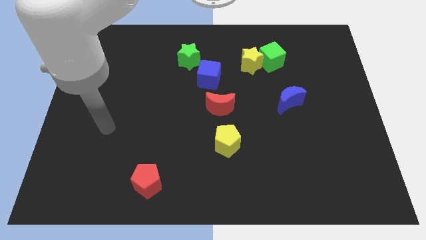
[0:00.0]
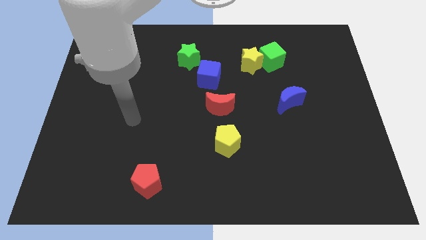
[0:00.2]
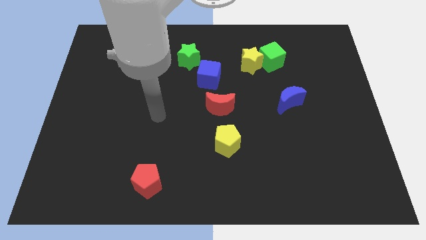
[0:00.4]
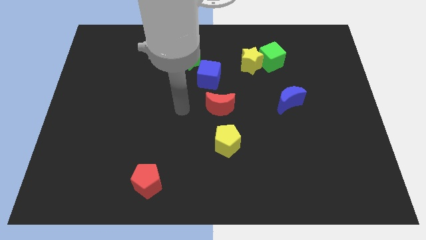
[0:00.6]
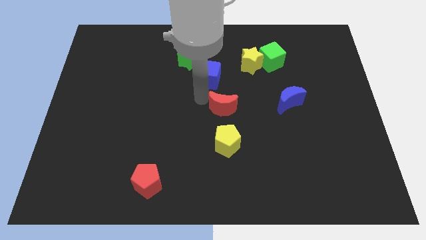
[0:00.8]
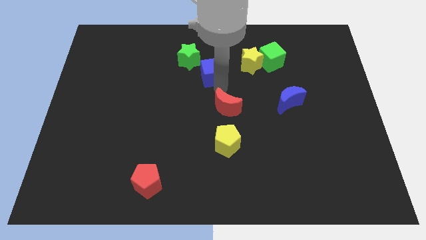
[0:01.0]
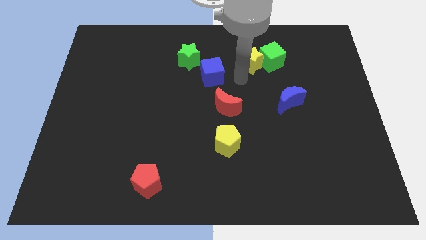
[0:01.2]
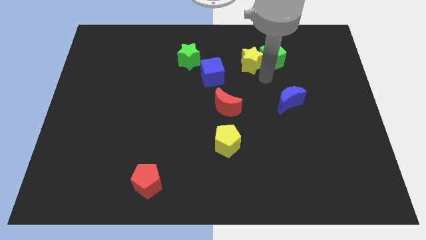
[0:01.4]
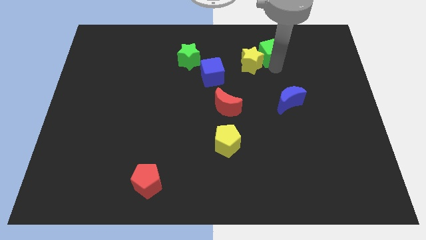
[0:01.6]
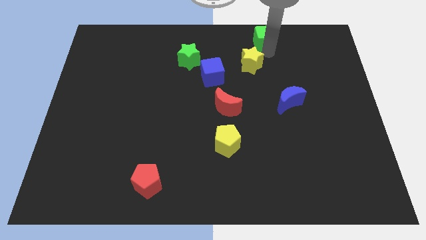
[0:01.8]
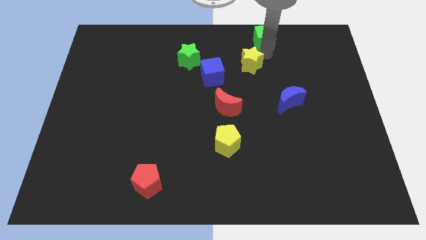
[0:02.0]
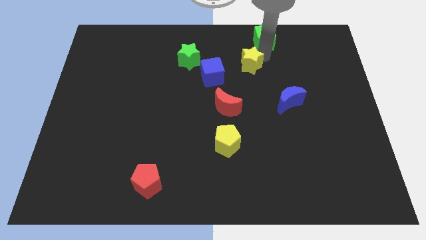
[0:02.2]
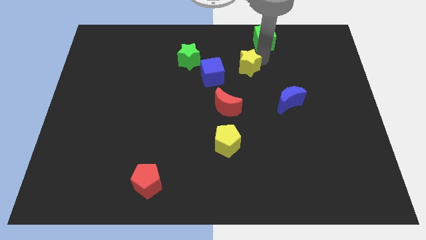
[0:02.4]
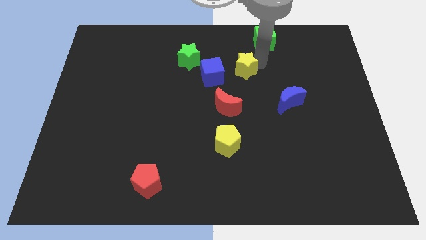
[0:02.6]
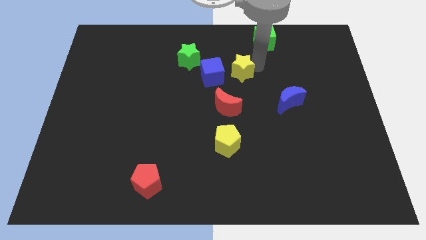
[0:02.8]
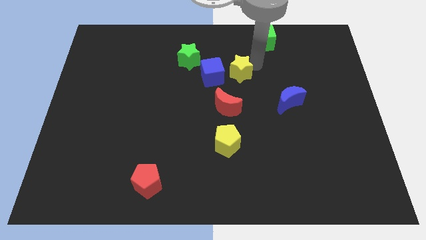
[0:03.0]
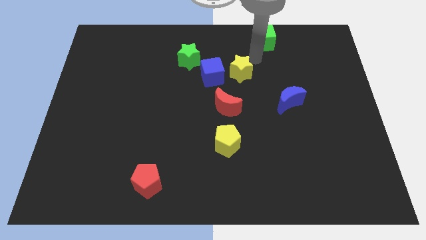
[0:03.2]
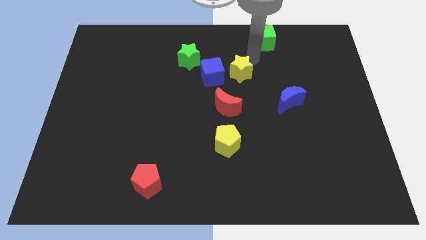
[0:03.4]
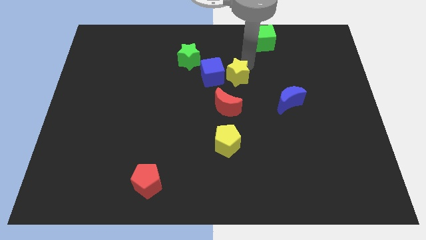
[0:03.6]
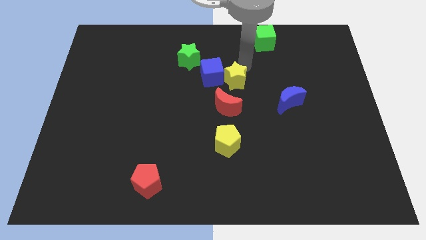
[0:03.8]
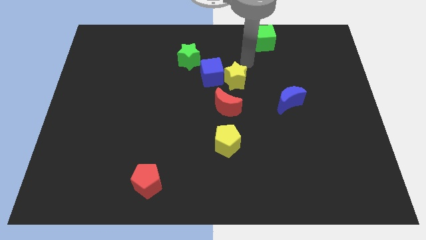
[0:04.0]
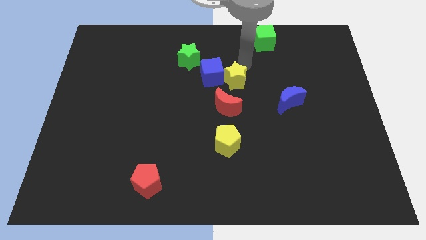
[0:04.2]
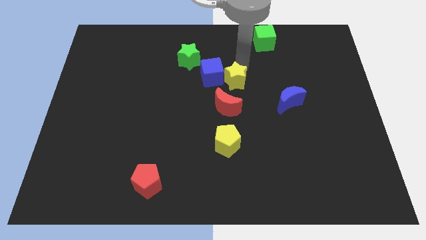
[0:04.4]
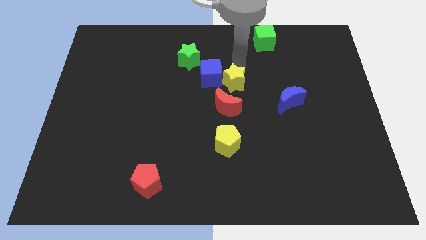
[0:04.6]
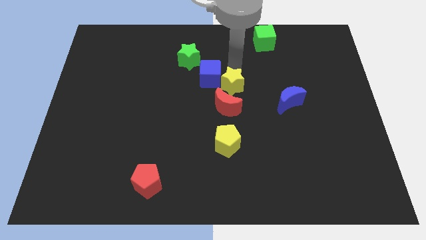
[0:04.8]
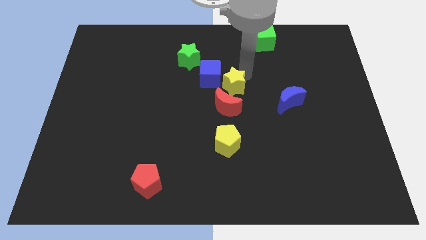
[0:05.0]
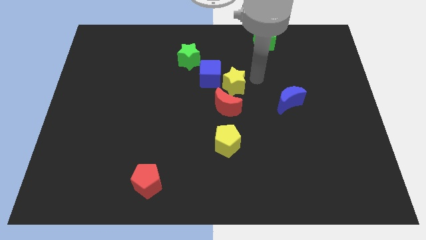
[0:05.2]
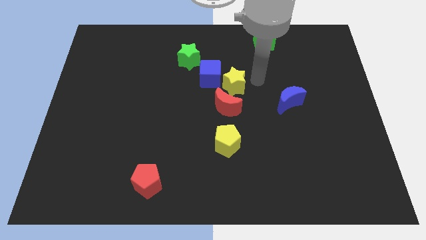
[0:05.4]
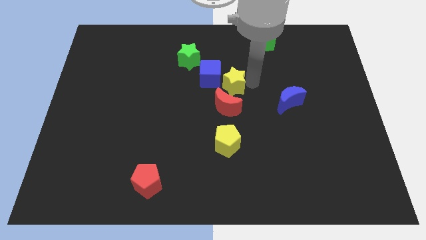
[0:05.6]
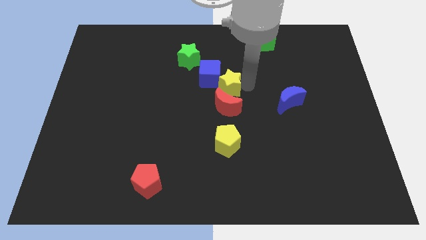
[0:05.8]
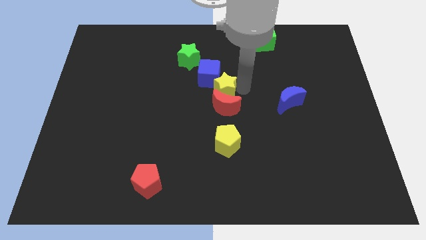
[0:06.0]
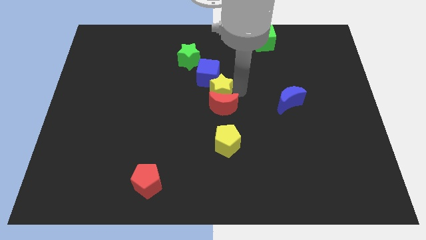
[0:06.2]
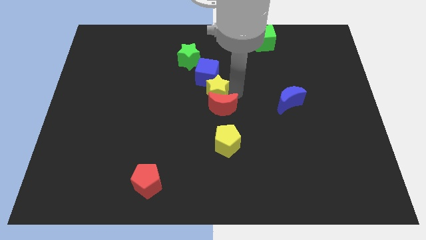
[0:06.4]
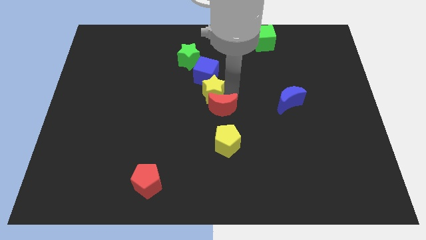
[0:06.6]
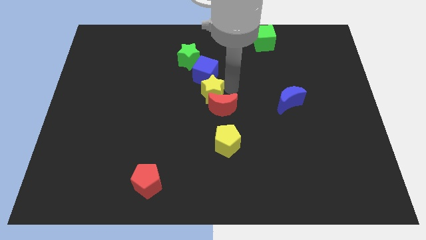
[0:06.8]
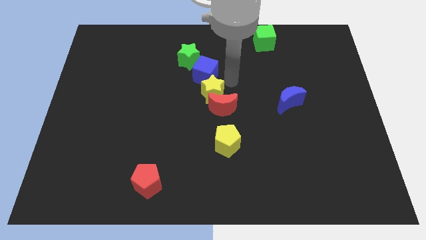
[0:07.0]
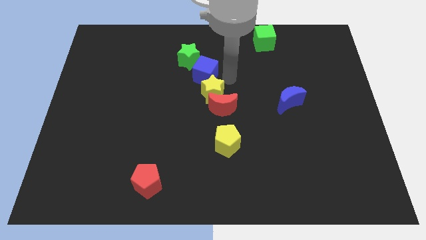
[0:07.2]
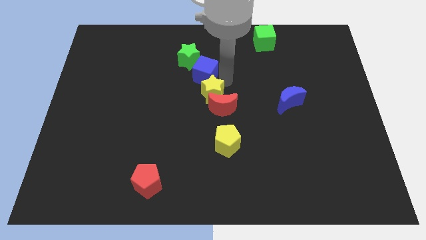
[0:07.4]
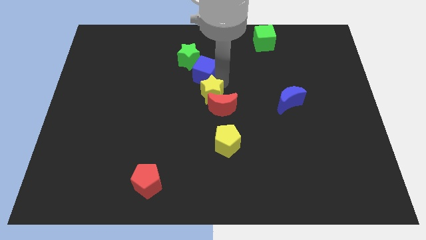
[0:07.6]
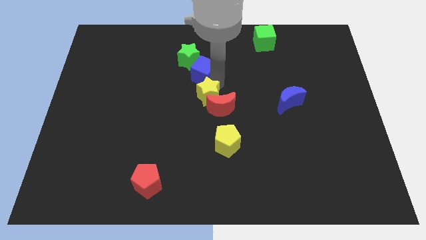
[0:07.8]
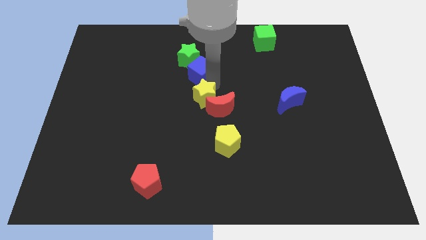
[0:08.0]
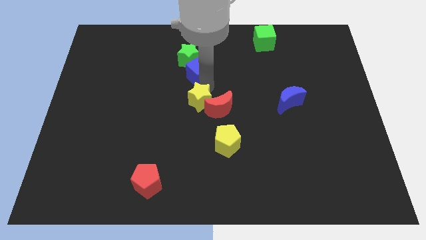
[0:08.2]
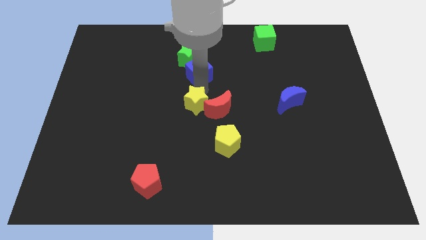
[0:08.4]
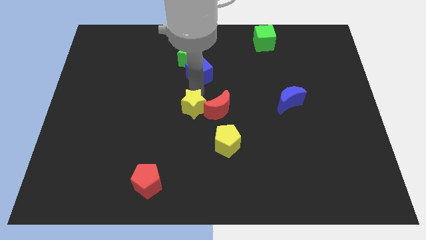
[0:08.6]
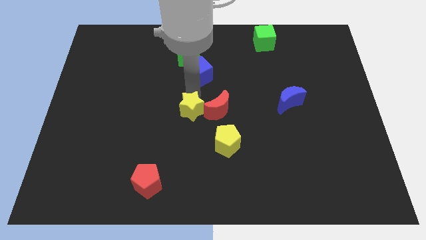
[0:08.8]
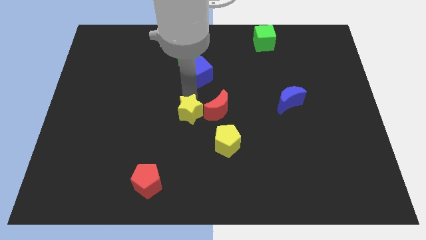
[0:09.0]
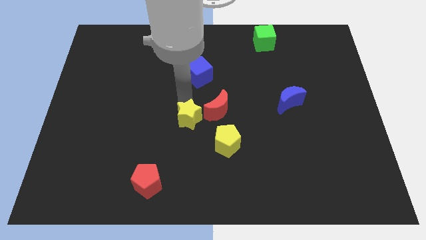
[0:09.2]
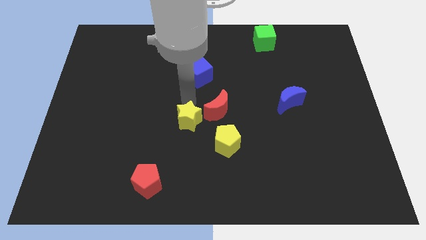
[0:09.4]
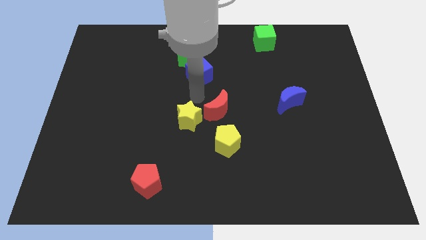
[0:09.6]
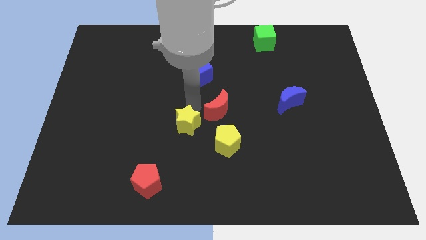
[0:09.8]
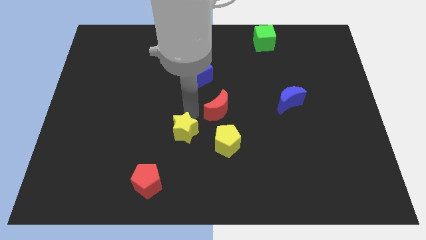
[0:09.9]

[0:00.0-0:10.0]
move the yellow star just left of the yellow pentagon

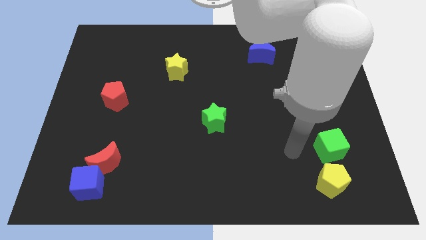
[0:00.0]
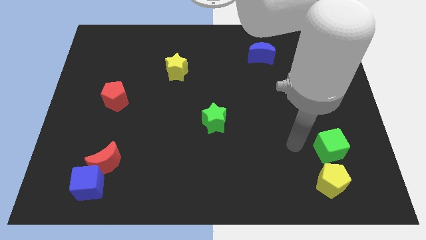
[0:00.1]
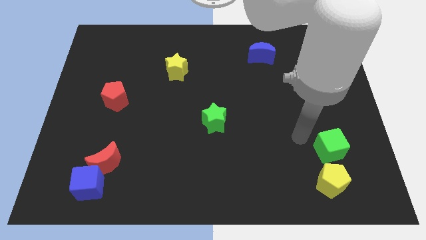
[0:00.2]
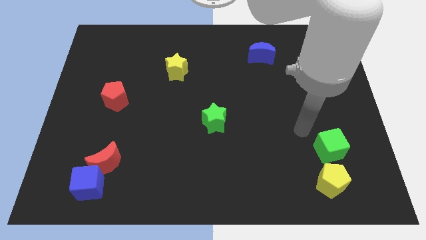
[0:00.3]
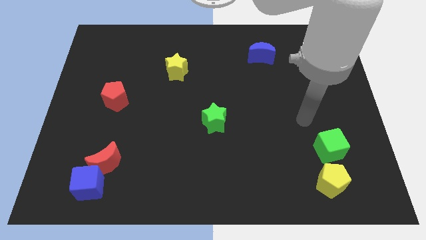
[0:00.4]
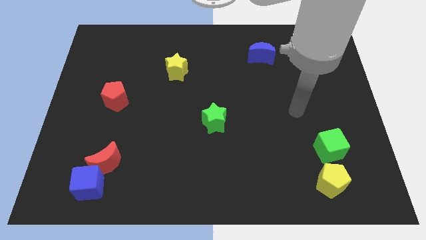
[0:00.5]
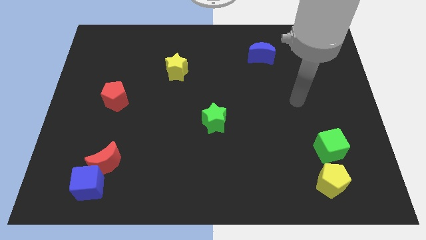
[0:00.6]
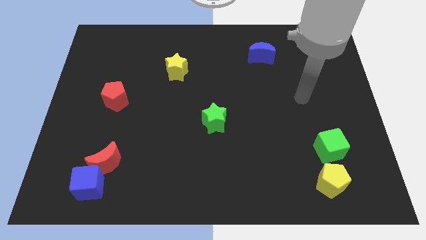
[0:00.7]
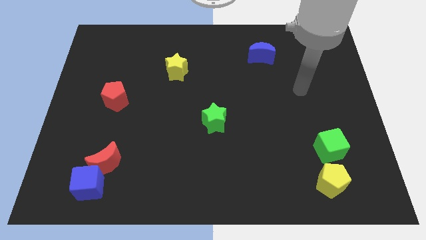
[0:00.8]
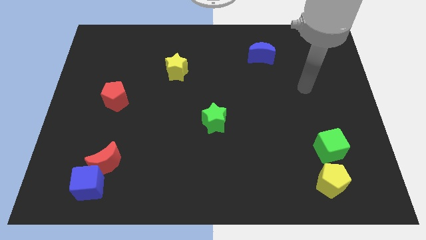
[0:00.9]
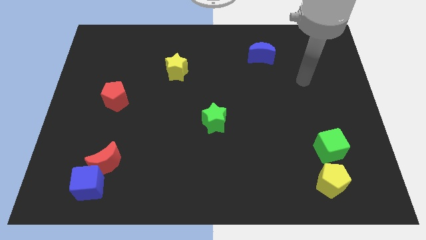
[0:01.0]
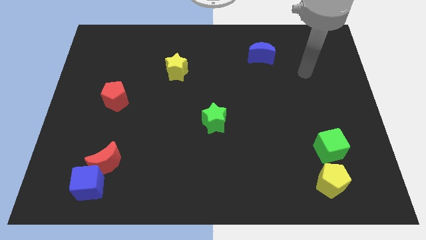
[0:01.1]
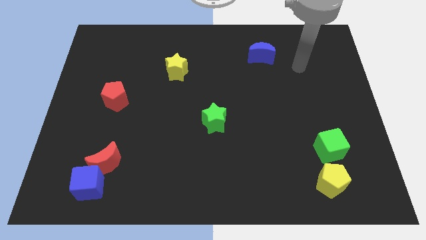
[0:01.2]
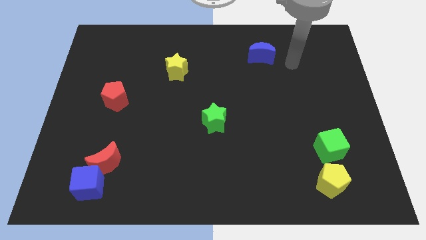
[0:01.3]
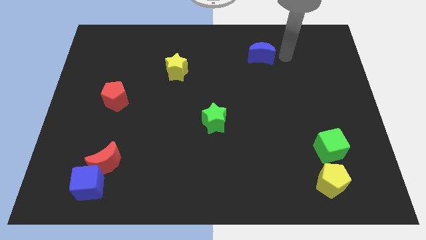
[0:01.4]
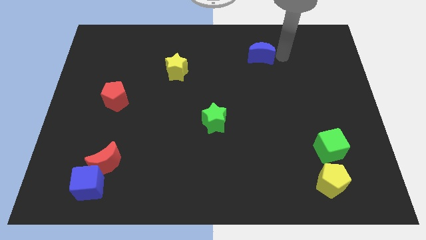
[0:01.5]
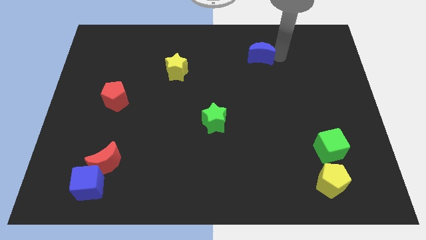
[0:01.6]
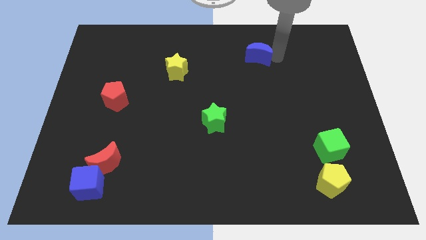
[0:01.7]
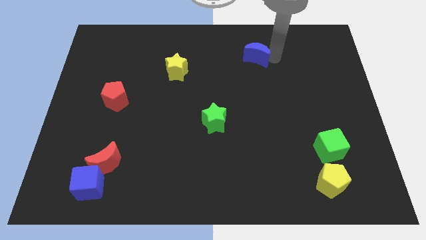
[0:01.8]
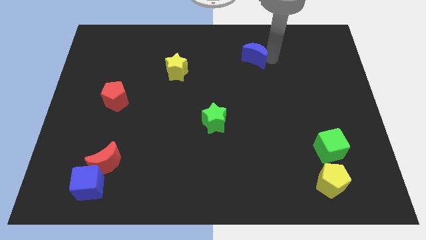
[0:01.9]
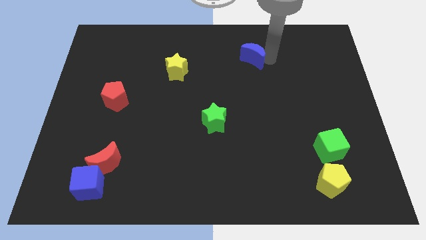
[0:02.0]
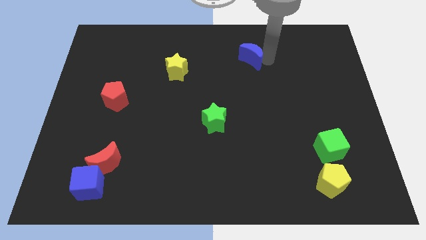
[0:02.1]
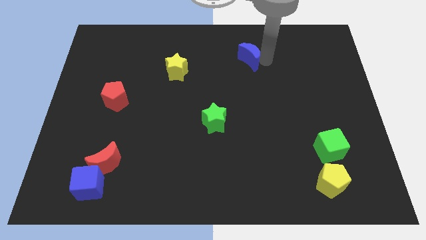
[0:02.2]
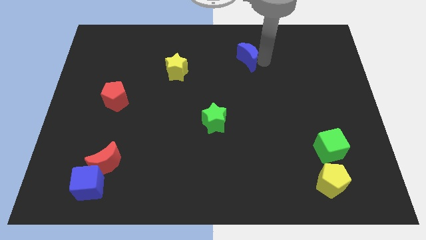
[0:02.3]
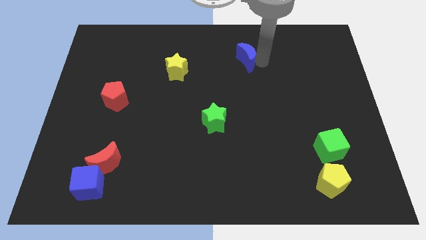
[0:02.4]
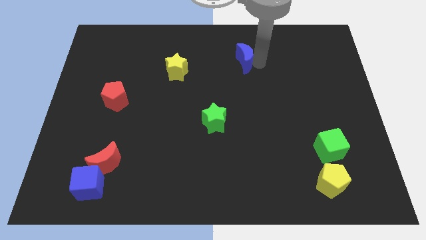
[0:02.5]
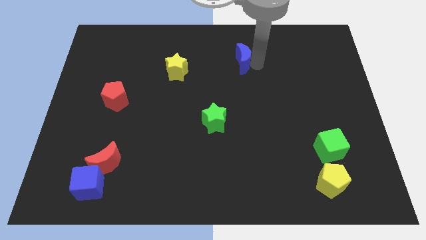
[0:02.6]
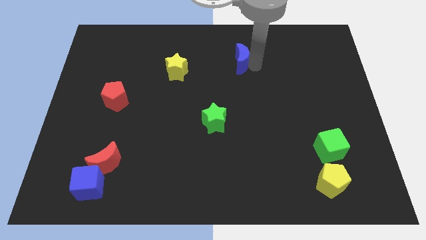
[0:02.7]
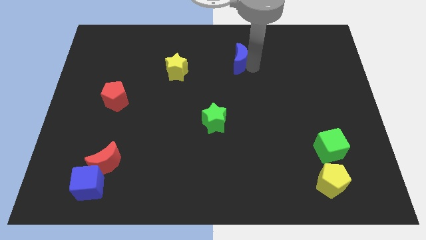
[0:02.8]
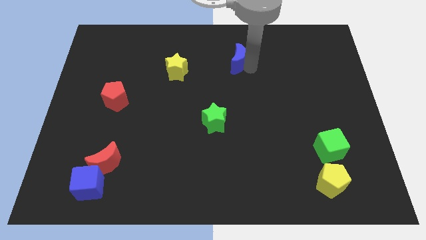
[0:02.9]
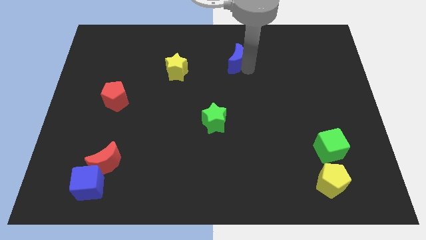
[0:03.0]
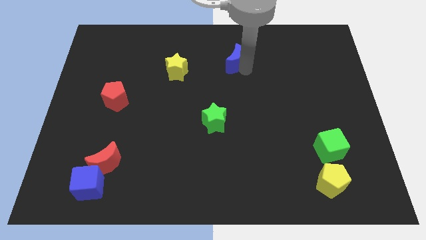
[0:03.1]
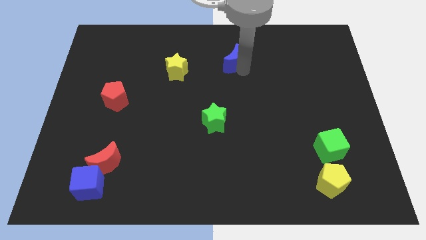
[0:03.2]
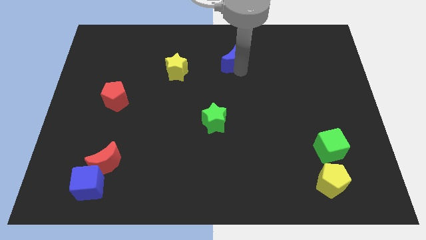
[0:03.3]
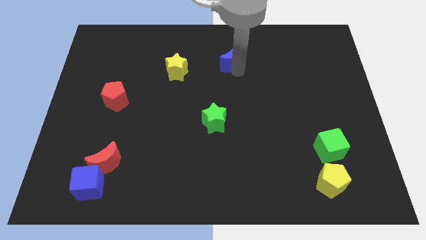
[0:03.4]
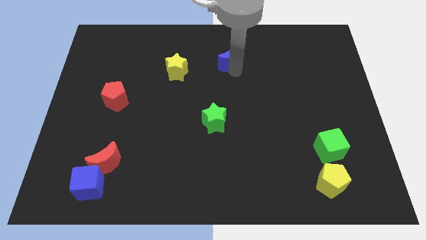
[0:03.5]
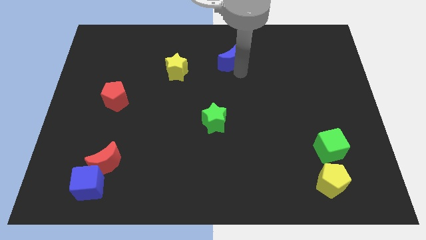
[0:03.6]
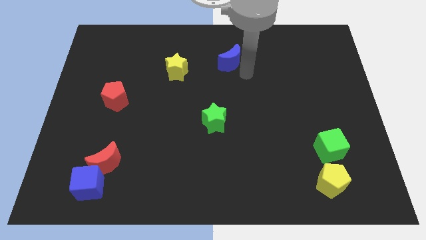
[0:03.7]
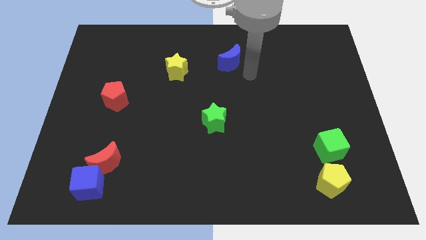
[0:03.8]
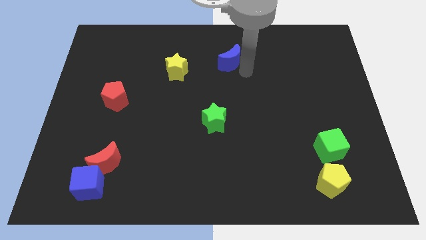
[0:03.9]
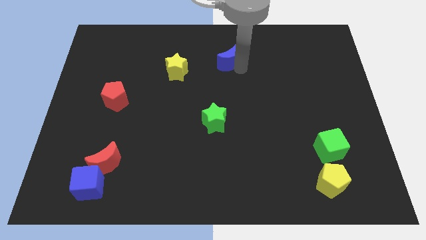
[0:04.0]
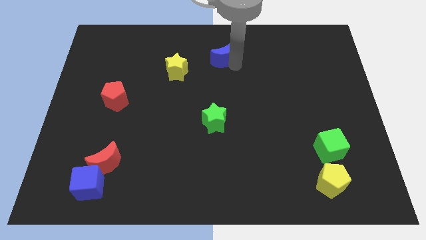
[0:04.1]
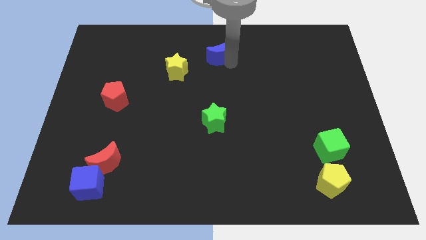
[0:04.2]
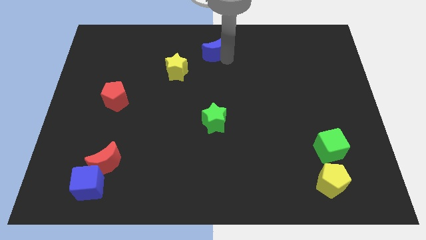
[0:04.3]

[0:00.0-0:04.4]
move the blue moon diagonally up and to the right of the yellow star
